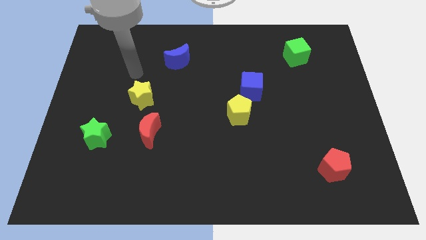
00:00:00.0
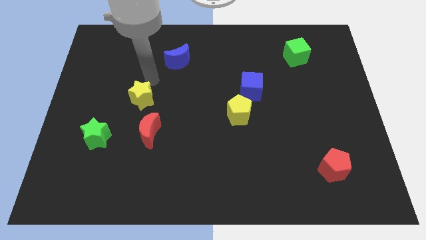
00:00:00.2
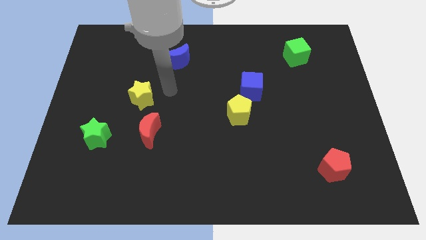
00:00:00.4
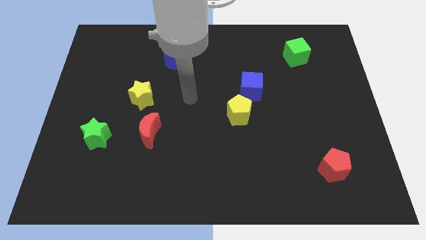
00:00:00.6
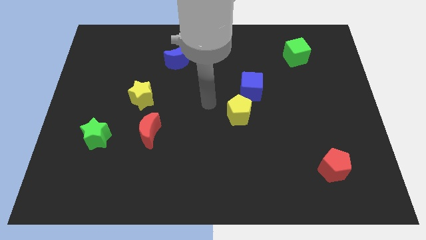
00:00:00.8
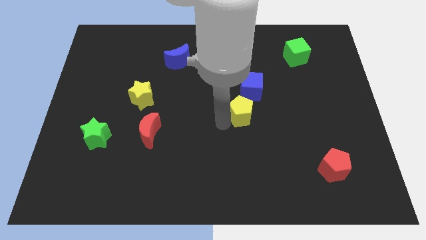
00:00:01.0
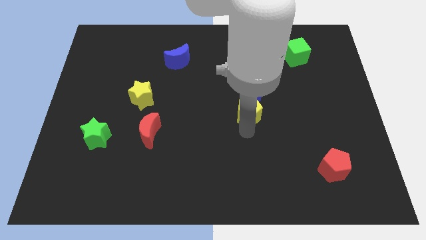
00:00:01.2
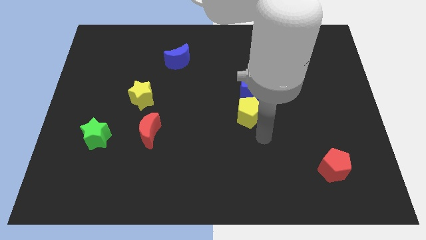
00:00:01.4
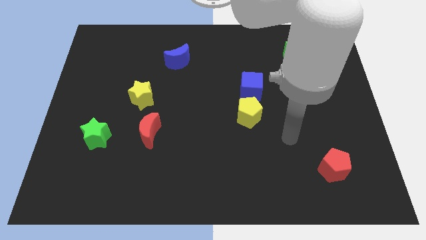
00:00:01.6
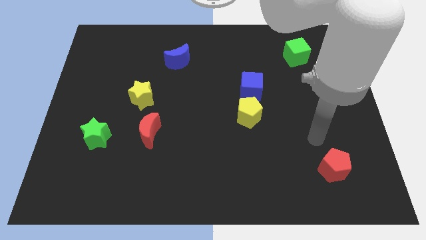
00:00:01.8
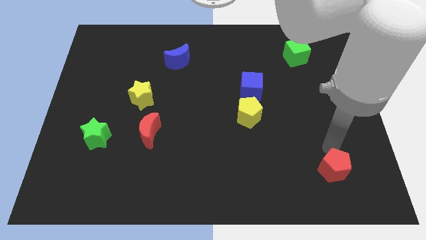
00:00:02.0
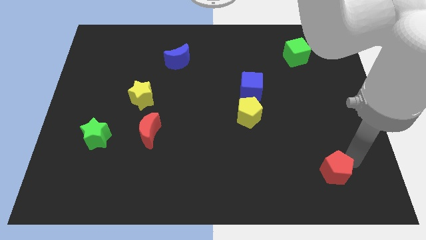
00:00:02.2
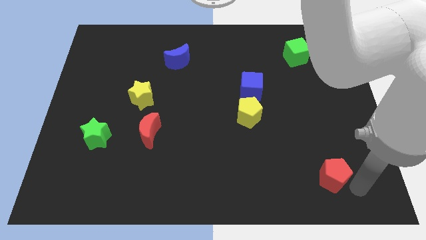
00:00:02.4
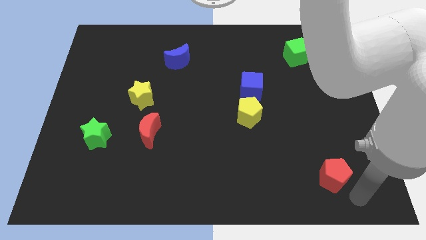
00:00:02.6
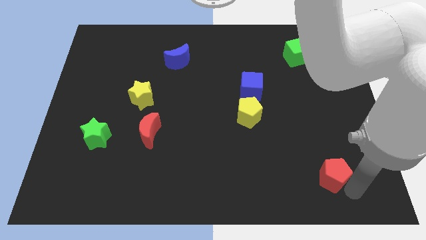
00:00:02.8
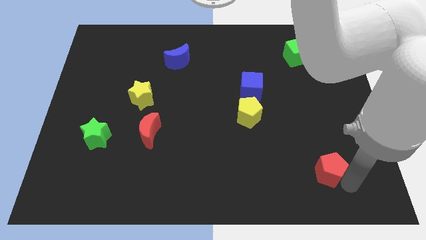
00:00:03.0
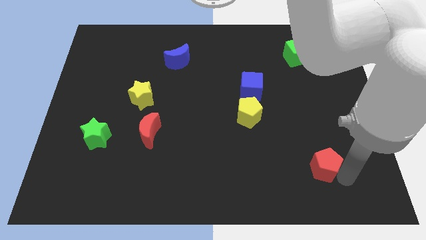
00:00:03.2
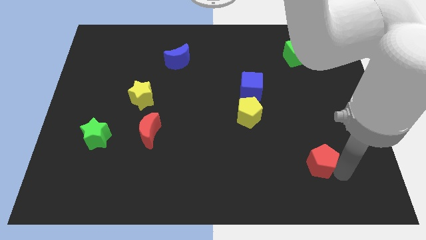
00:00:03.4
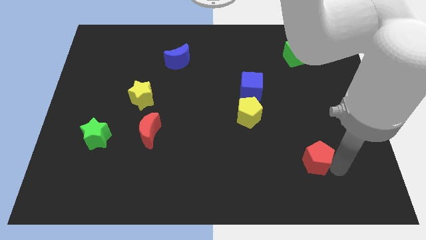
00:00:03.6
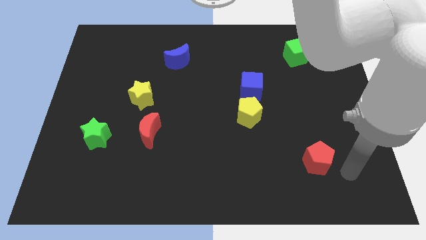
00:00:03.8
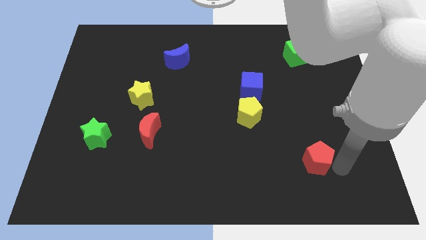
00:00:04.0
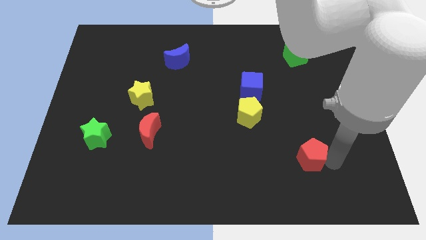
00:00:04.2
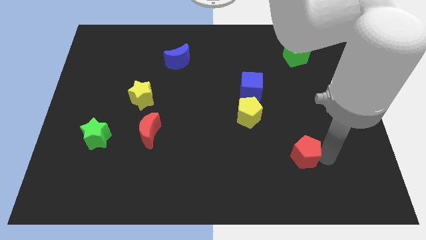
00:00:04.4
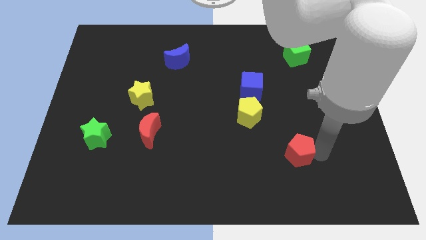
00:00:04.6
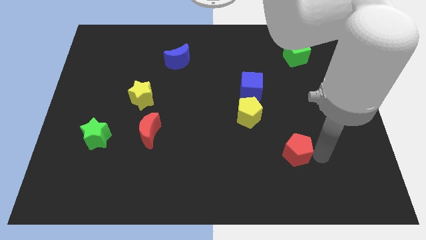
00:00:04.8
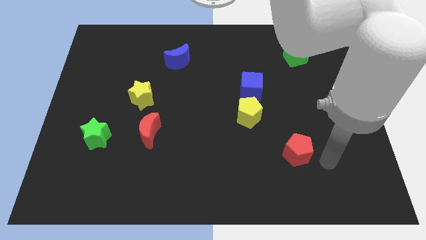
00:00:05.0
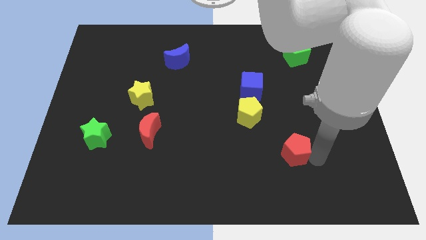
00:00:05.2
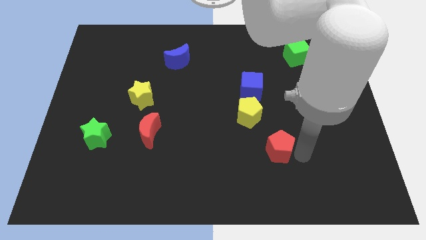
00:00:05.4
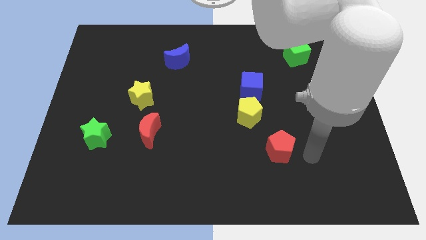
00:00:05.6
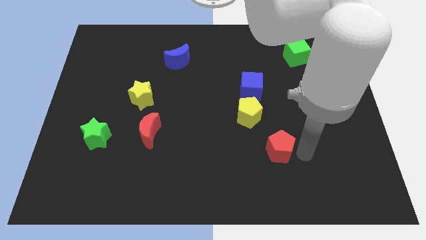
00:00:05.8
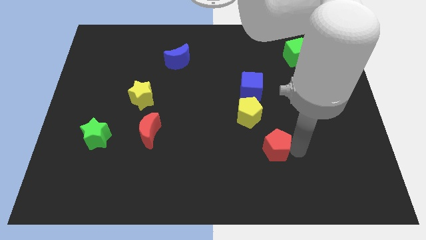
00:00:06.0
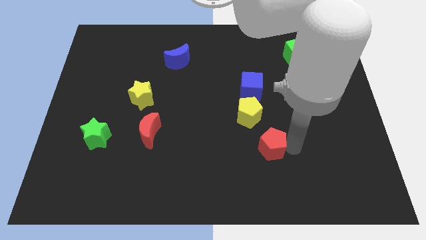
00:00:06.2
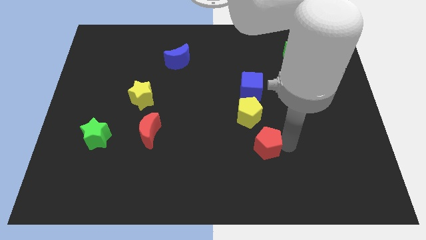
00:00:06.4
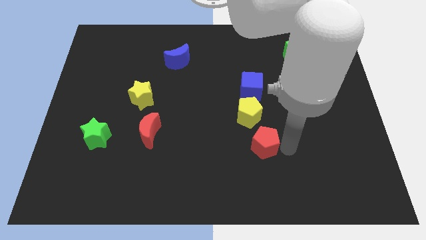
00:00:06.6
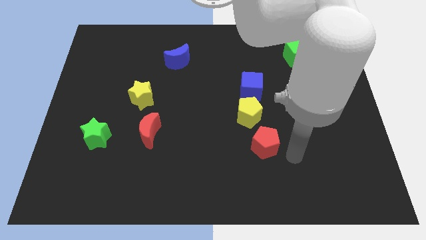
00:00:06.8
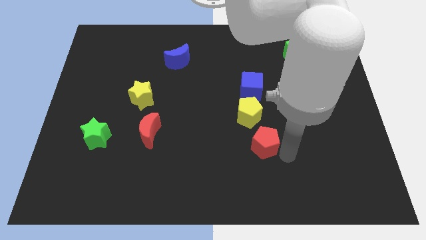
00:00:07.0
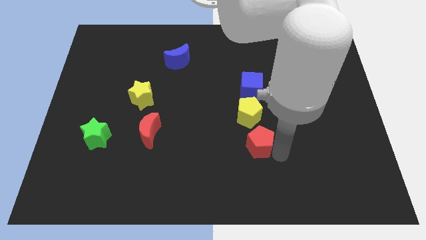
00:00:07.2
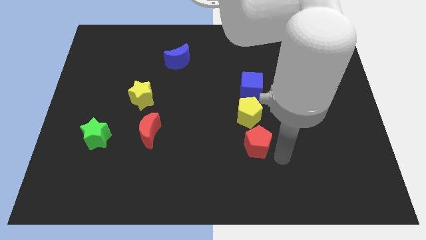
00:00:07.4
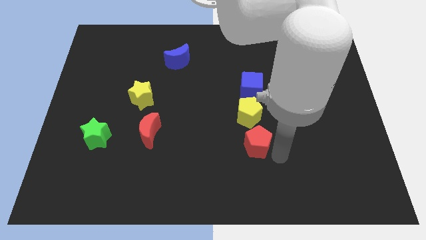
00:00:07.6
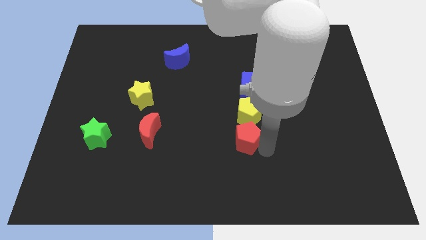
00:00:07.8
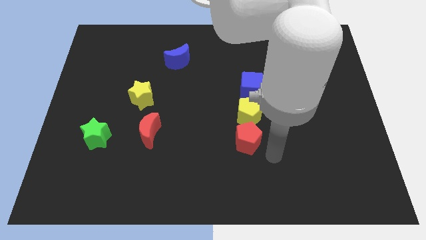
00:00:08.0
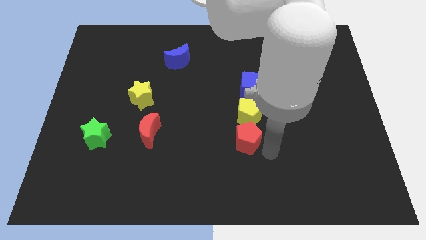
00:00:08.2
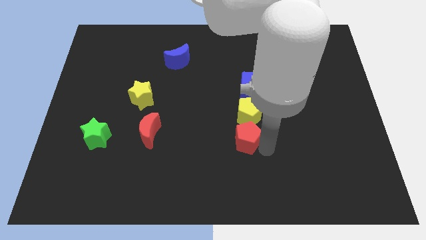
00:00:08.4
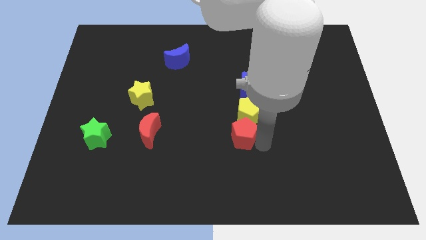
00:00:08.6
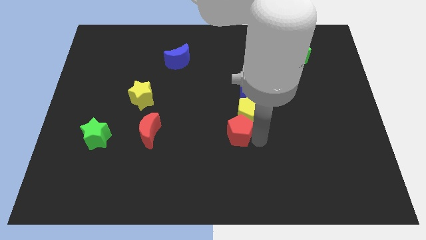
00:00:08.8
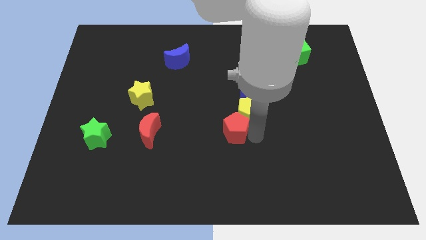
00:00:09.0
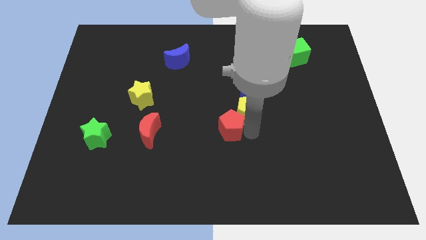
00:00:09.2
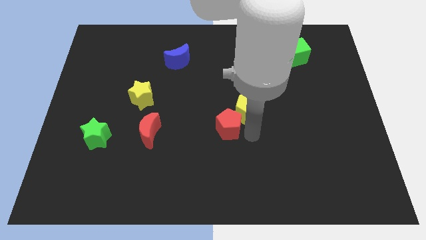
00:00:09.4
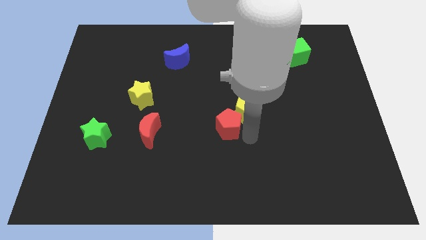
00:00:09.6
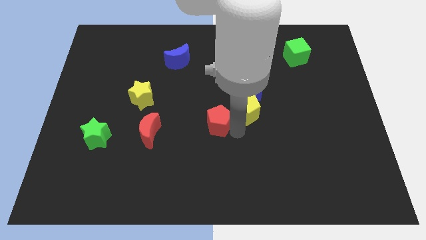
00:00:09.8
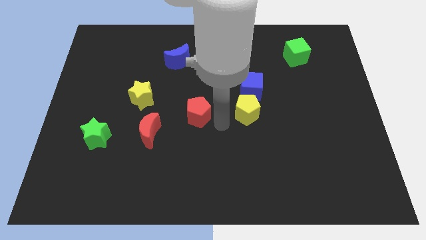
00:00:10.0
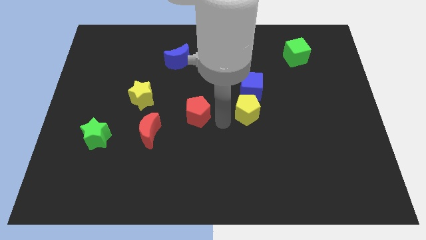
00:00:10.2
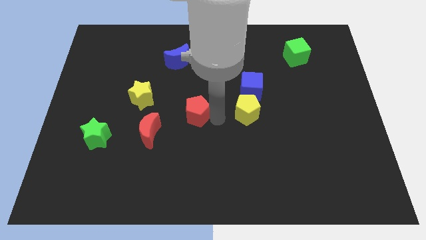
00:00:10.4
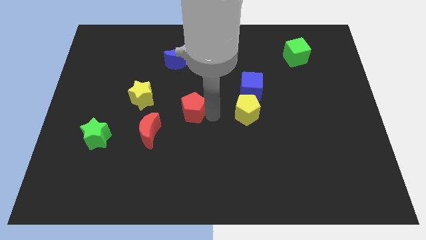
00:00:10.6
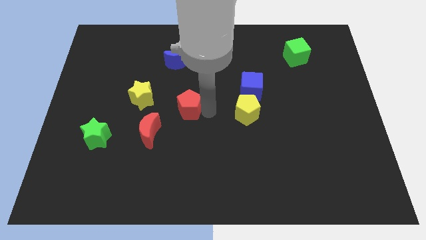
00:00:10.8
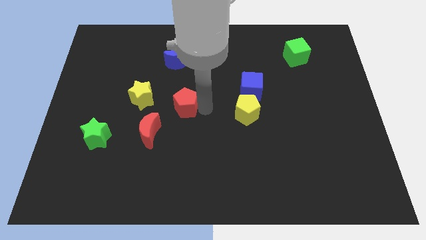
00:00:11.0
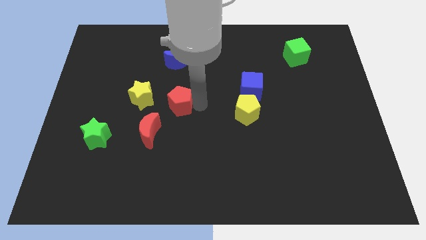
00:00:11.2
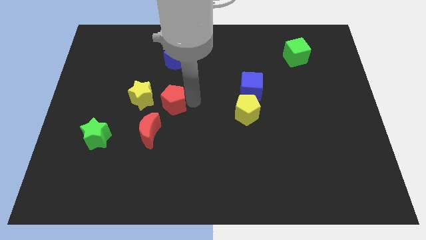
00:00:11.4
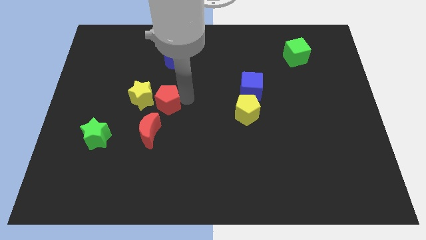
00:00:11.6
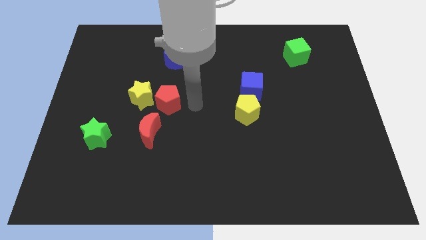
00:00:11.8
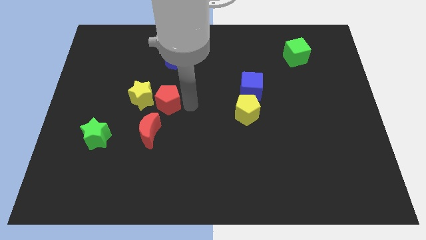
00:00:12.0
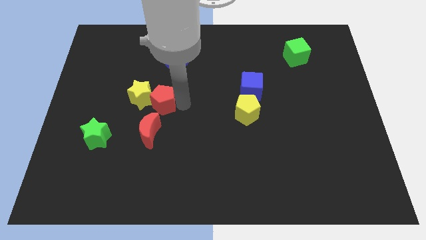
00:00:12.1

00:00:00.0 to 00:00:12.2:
move the red pentagon next to the yellow star

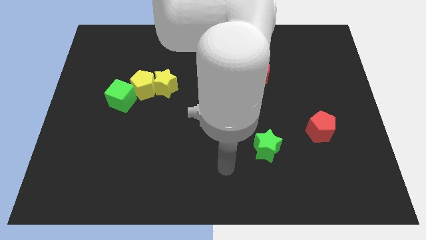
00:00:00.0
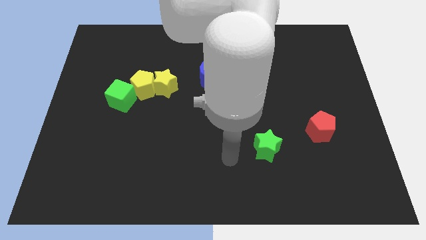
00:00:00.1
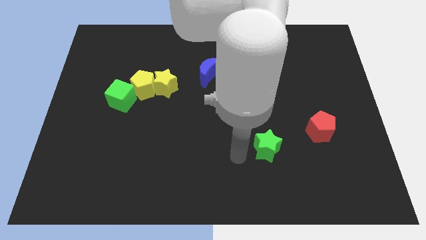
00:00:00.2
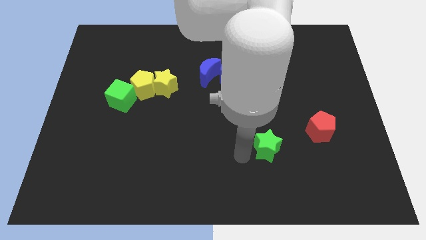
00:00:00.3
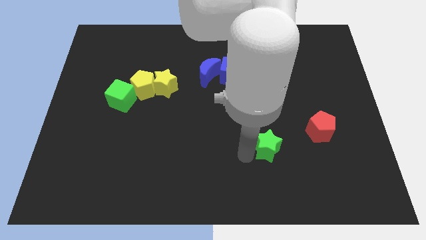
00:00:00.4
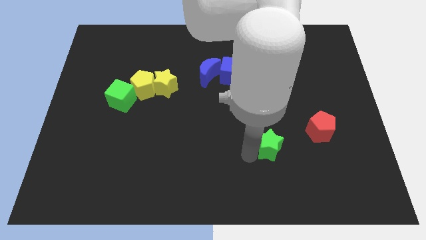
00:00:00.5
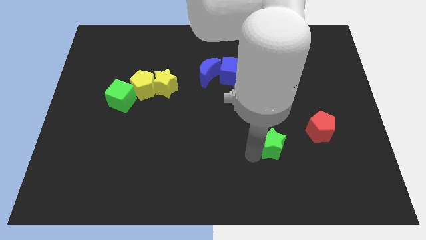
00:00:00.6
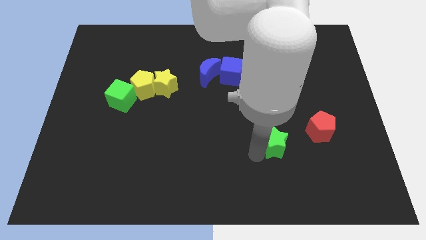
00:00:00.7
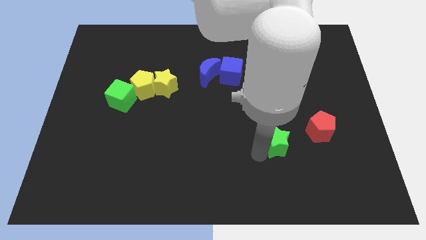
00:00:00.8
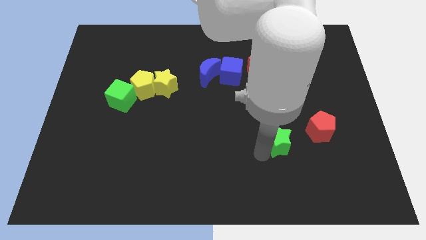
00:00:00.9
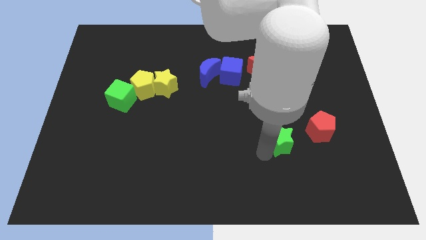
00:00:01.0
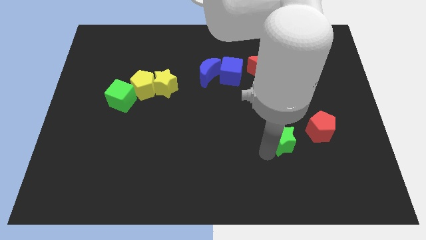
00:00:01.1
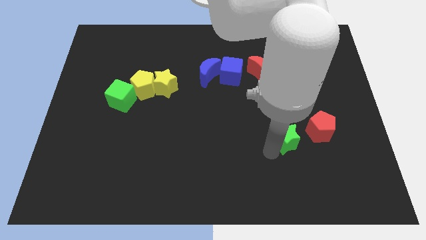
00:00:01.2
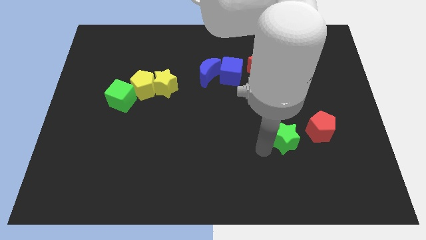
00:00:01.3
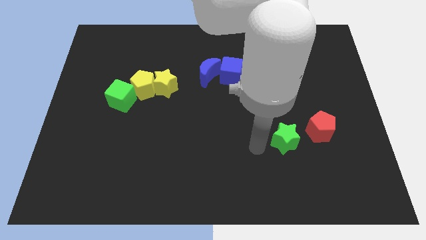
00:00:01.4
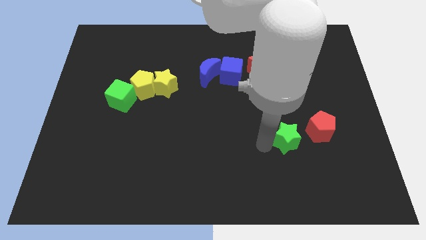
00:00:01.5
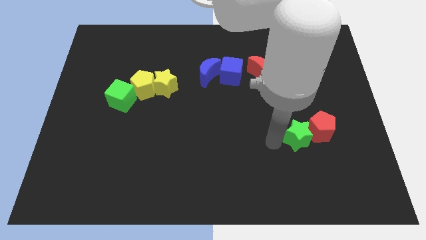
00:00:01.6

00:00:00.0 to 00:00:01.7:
push the green star next to the red pentagon
